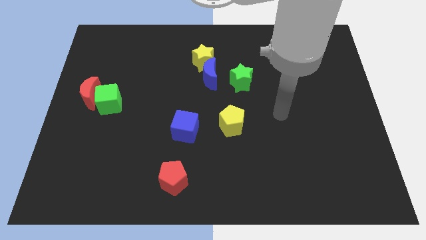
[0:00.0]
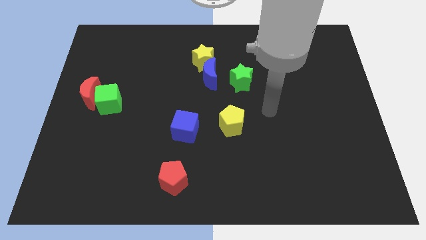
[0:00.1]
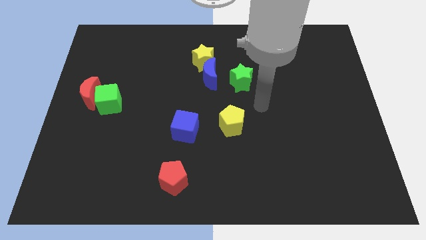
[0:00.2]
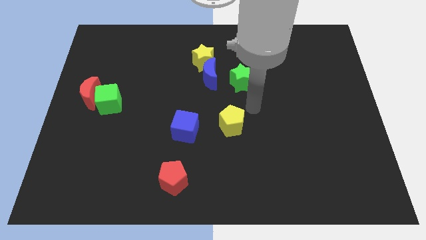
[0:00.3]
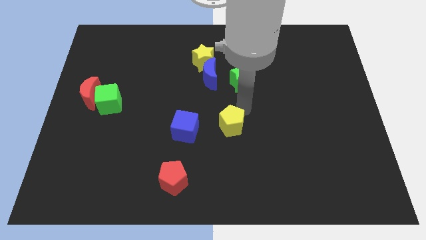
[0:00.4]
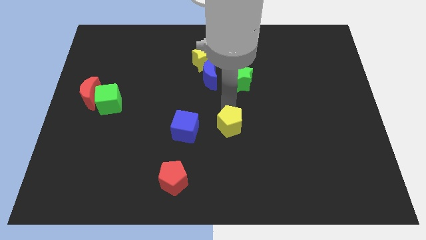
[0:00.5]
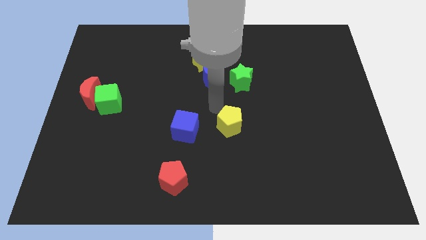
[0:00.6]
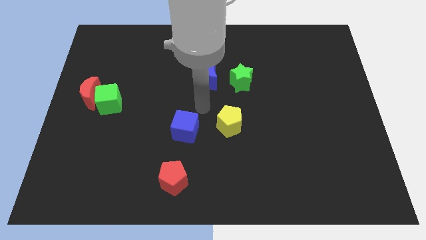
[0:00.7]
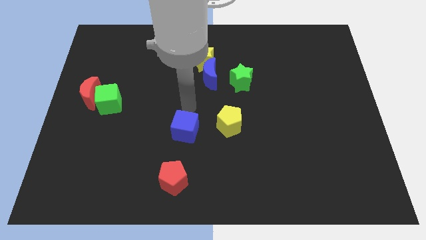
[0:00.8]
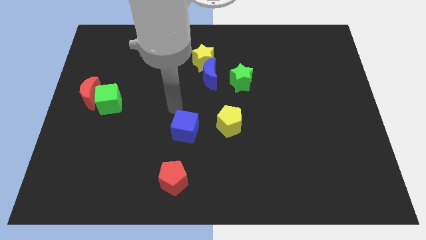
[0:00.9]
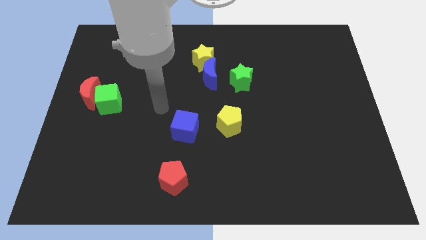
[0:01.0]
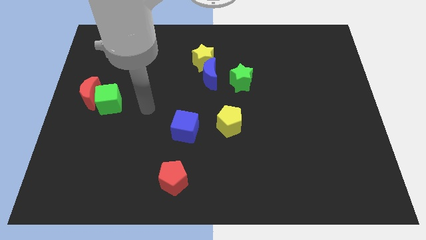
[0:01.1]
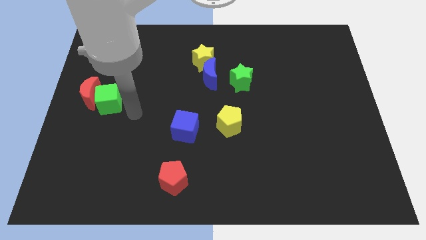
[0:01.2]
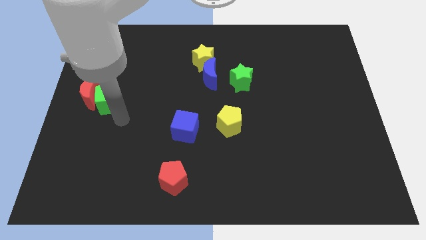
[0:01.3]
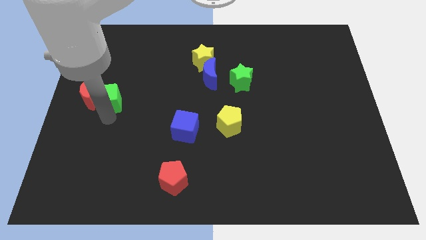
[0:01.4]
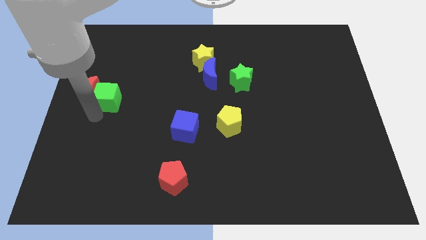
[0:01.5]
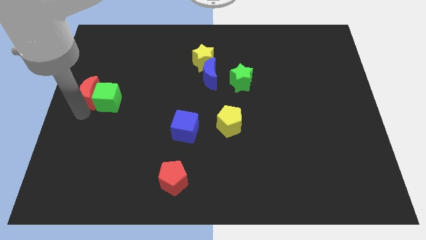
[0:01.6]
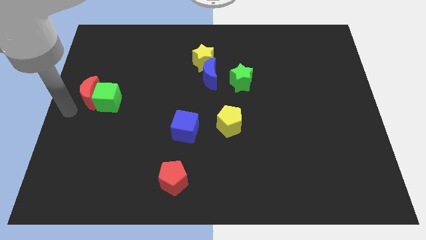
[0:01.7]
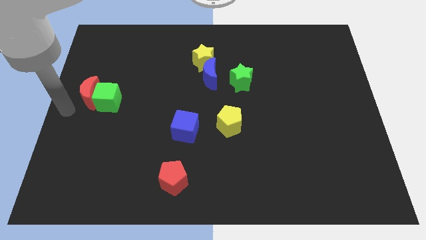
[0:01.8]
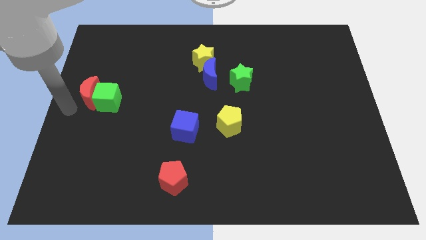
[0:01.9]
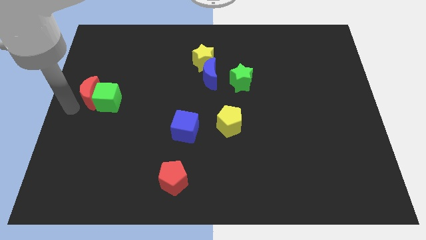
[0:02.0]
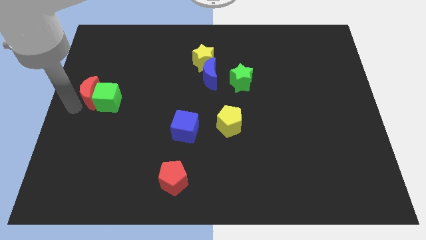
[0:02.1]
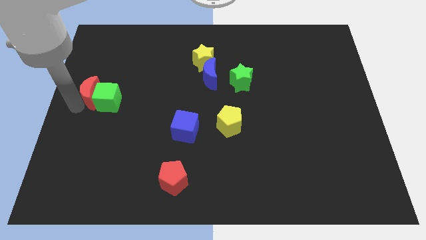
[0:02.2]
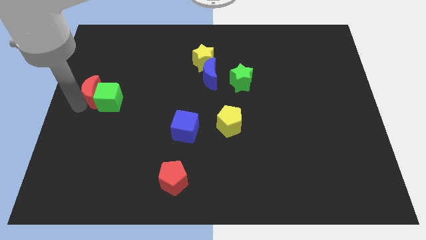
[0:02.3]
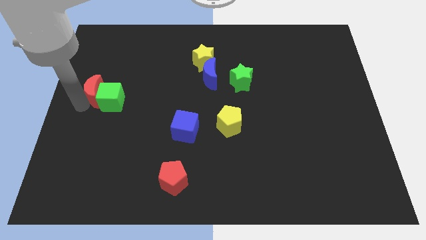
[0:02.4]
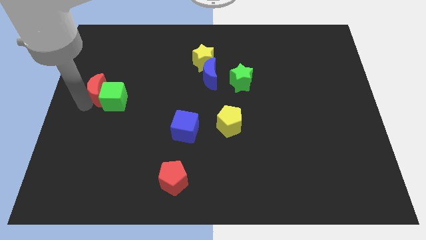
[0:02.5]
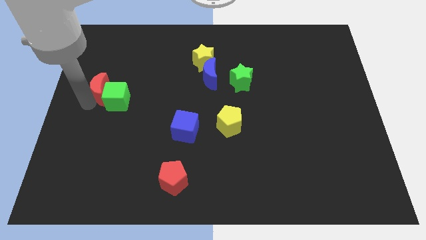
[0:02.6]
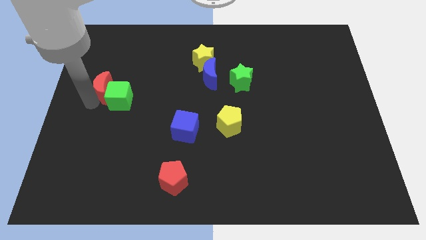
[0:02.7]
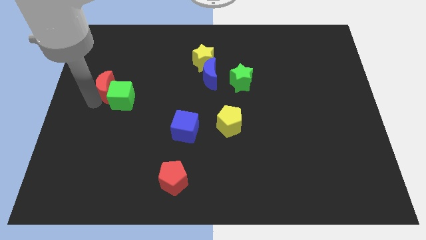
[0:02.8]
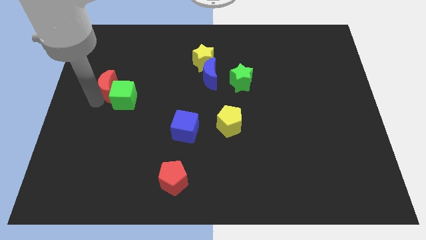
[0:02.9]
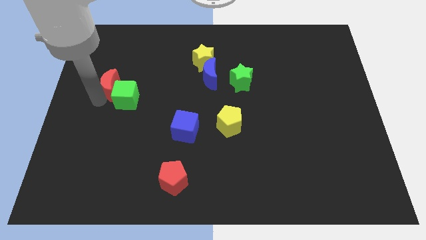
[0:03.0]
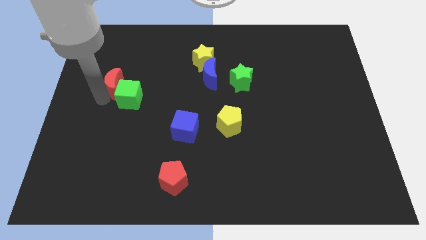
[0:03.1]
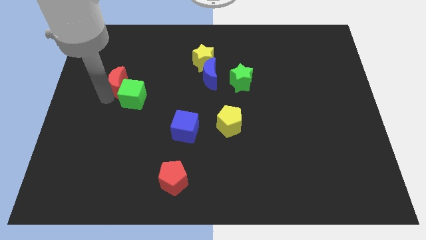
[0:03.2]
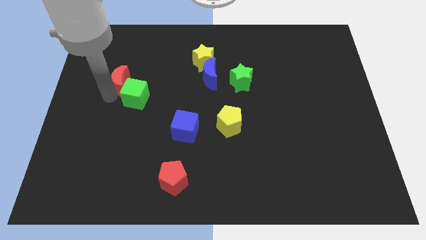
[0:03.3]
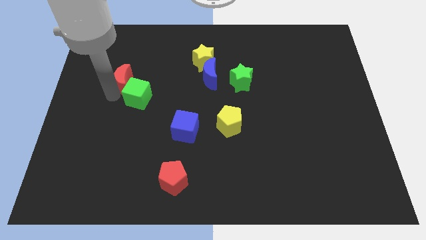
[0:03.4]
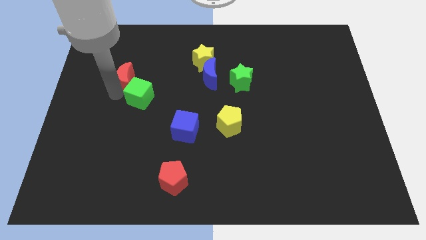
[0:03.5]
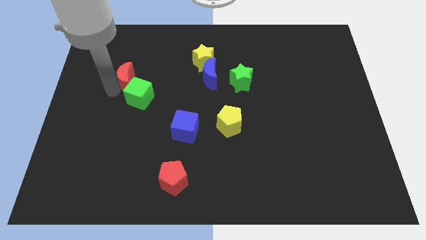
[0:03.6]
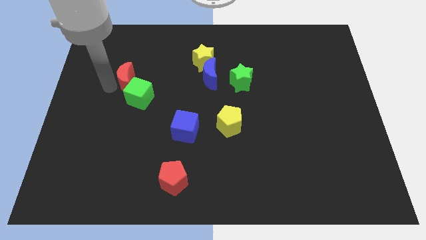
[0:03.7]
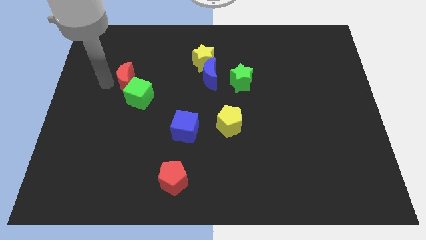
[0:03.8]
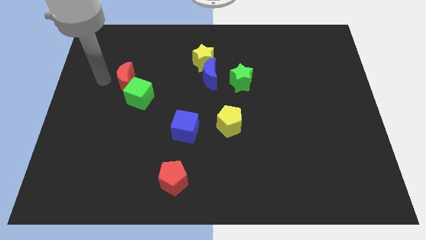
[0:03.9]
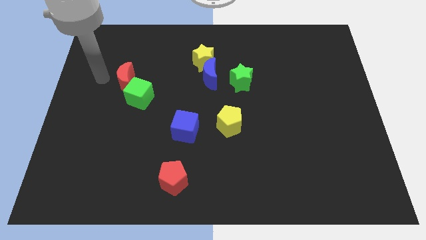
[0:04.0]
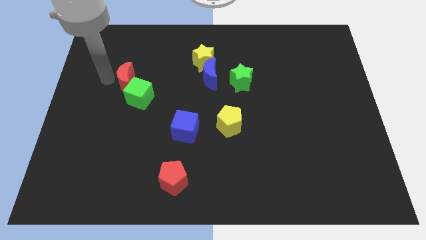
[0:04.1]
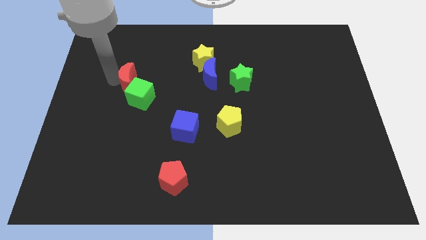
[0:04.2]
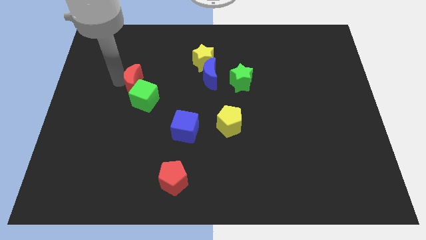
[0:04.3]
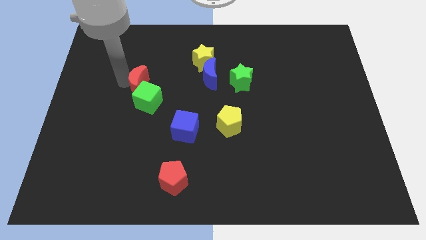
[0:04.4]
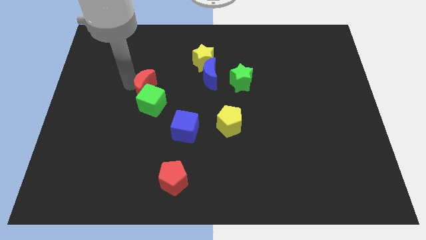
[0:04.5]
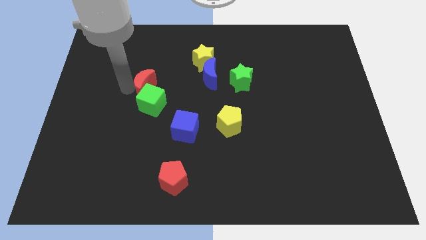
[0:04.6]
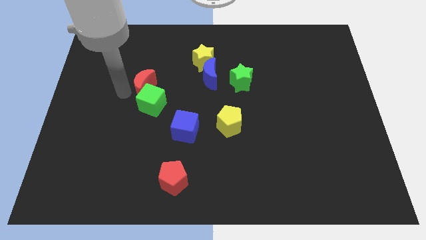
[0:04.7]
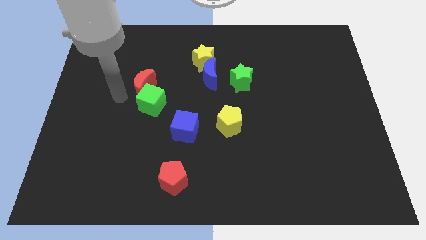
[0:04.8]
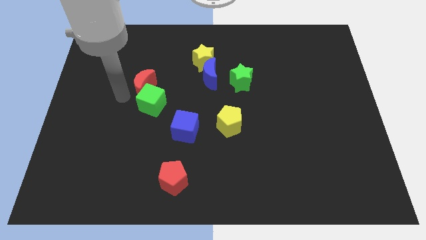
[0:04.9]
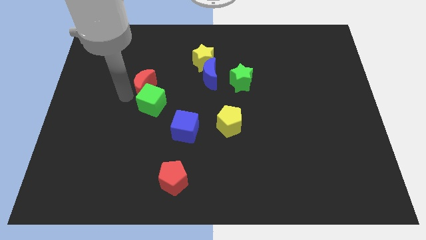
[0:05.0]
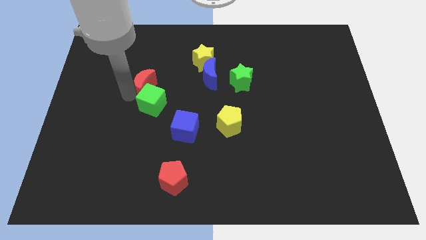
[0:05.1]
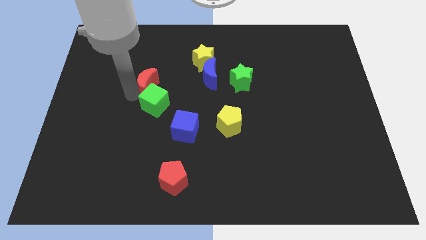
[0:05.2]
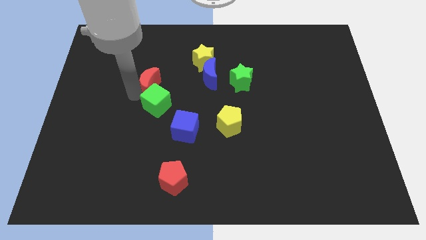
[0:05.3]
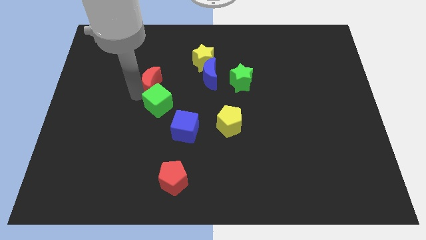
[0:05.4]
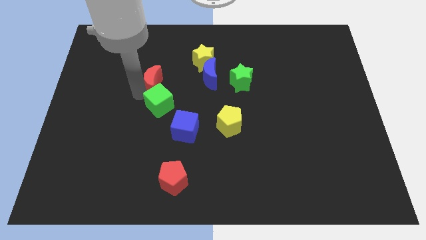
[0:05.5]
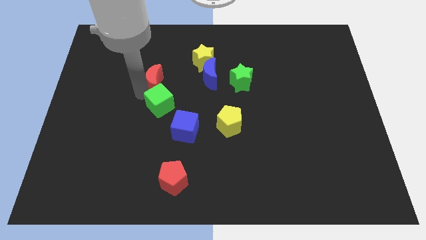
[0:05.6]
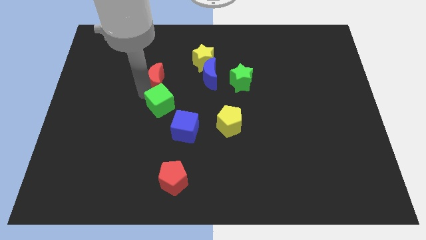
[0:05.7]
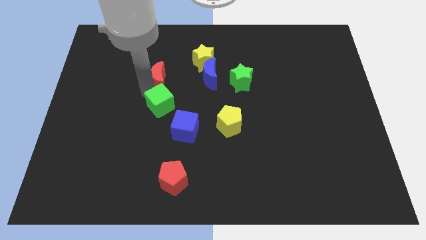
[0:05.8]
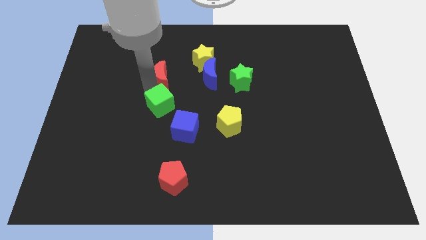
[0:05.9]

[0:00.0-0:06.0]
put the red moon to the bottom left of the yellow star

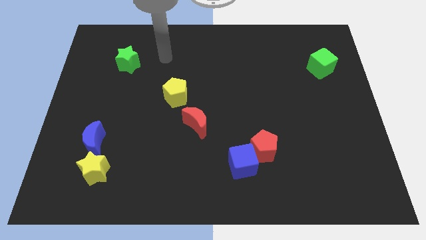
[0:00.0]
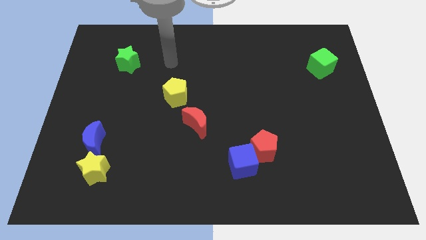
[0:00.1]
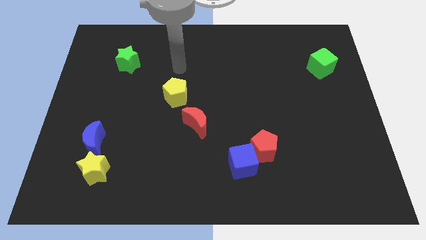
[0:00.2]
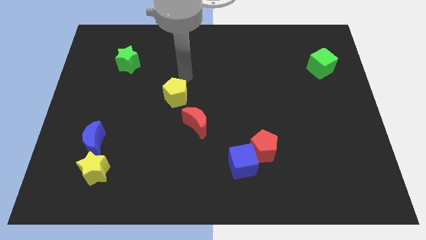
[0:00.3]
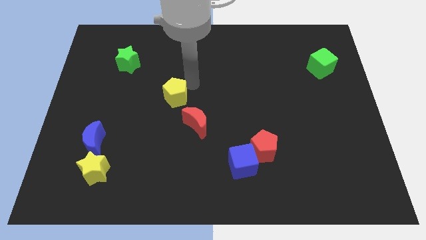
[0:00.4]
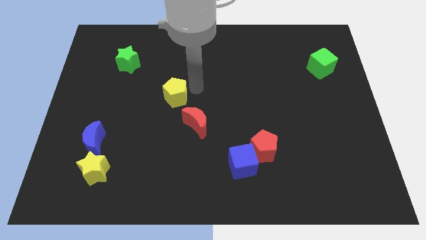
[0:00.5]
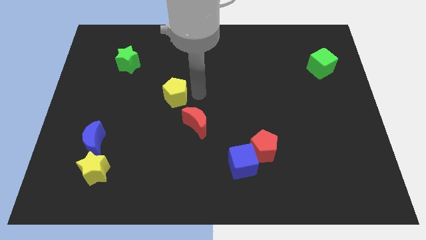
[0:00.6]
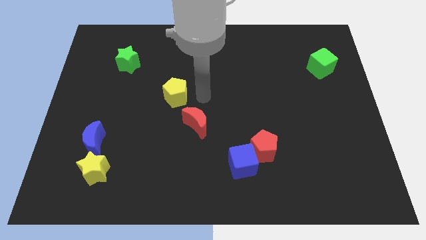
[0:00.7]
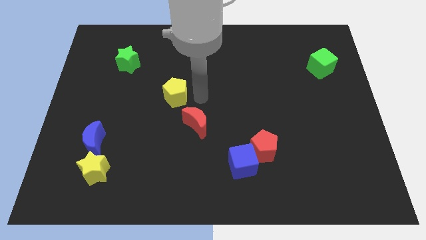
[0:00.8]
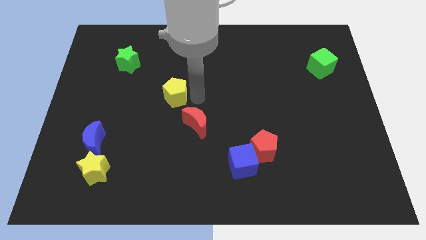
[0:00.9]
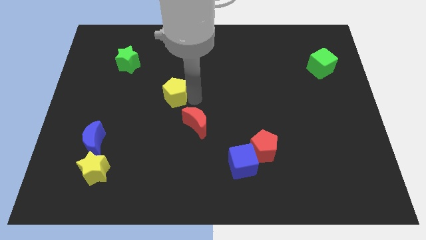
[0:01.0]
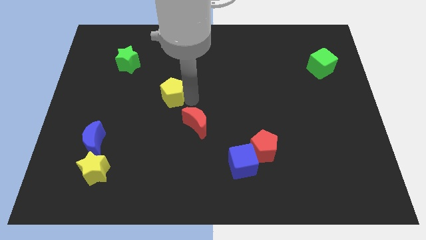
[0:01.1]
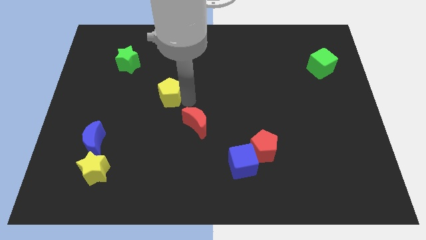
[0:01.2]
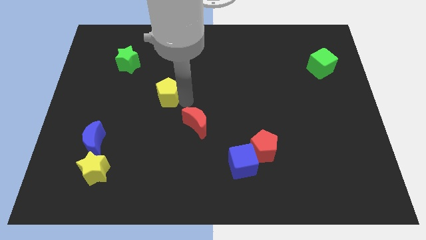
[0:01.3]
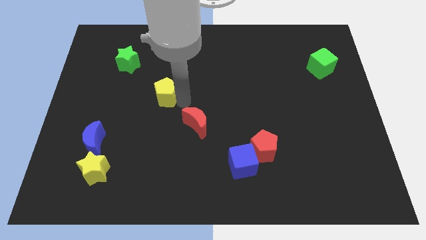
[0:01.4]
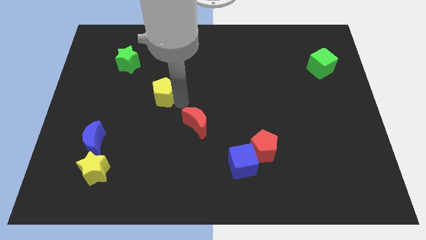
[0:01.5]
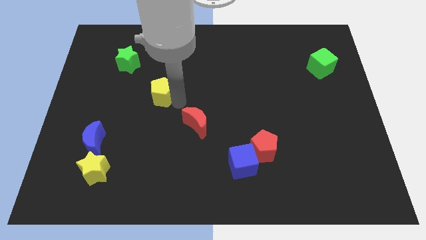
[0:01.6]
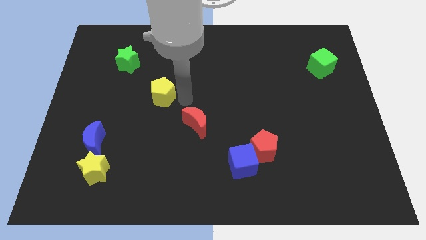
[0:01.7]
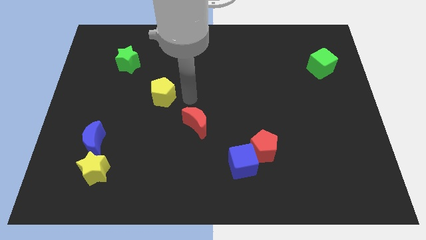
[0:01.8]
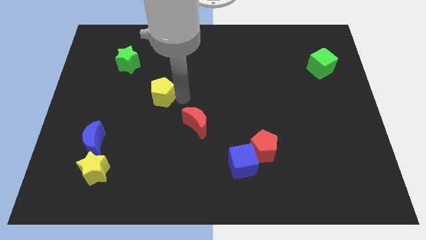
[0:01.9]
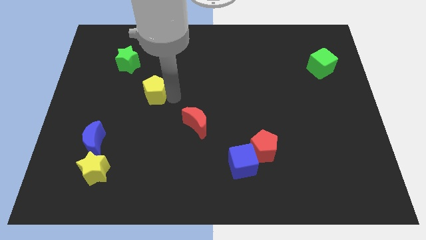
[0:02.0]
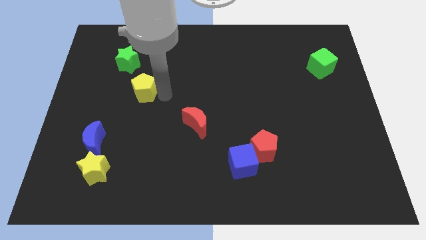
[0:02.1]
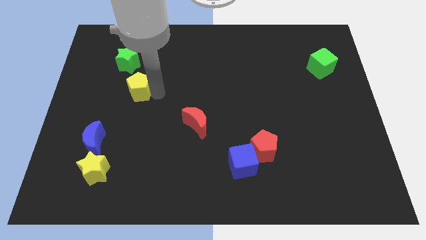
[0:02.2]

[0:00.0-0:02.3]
put the yellow pentagon to the bottom side of the green star
